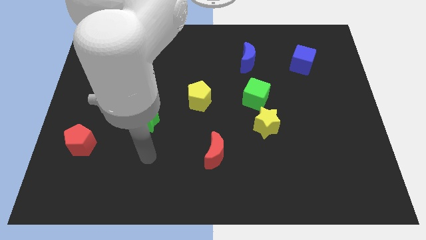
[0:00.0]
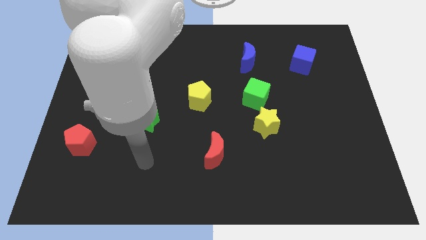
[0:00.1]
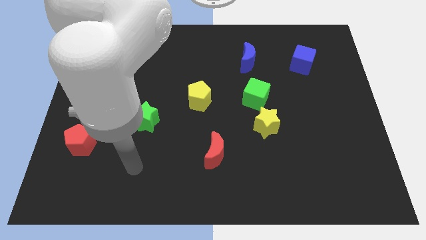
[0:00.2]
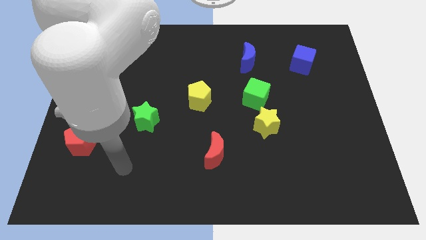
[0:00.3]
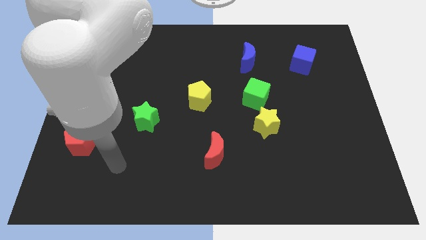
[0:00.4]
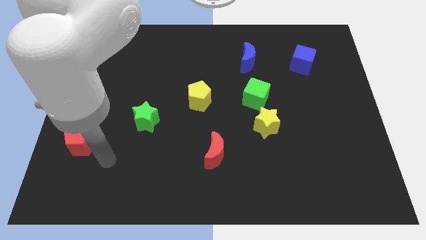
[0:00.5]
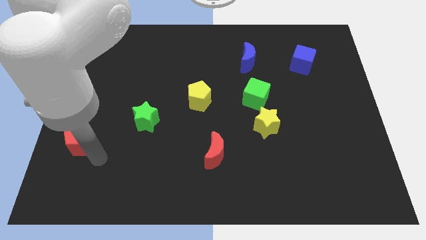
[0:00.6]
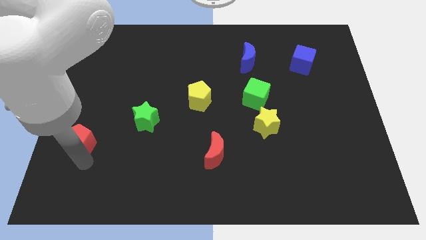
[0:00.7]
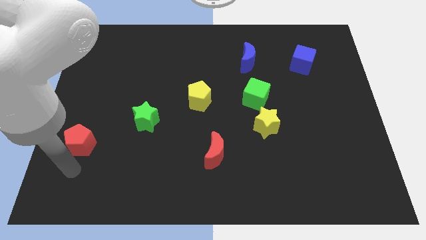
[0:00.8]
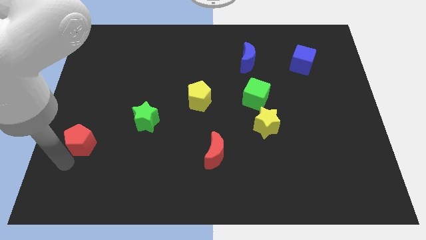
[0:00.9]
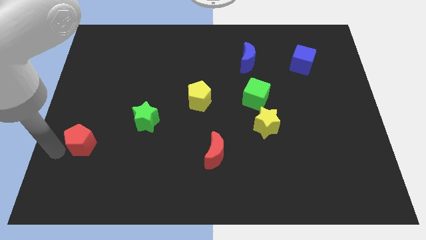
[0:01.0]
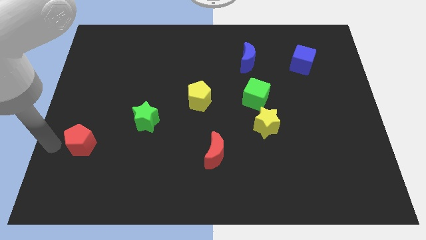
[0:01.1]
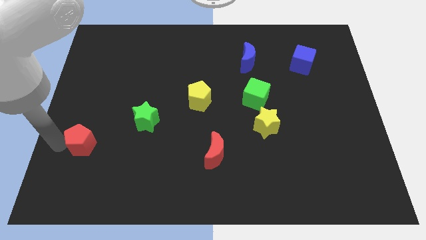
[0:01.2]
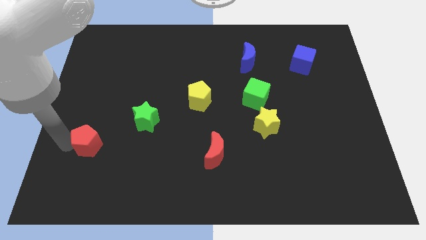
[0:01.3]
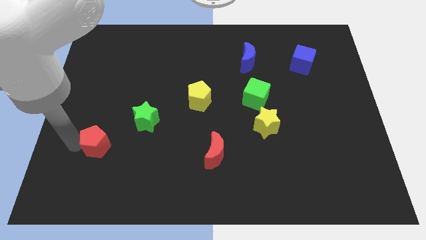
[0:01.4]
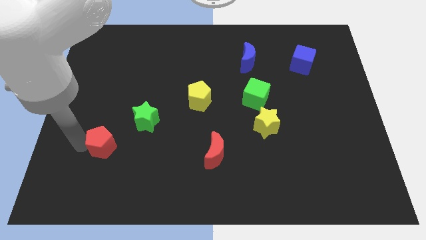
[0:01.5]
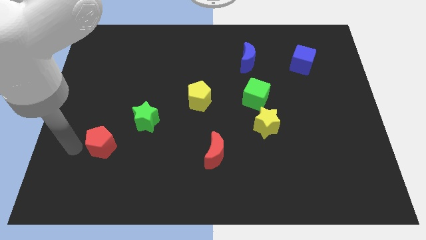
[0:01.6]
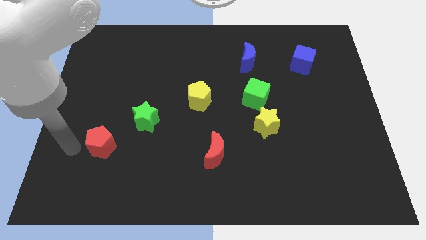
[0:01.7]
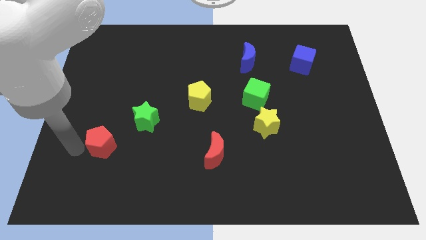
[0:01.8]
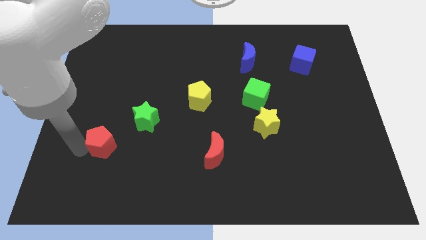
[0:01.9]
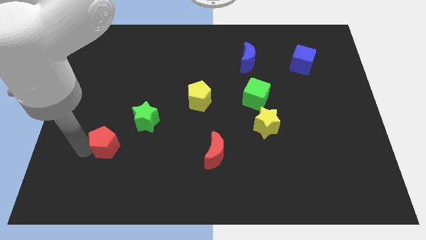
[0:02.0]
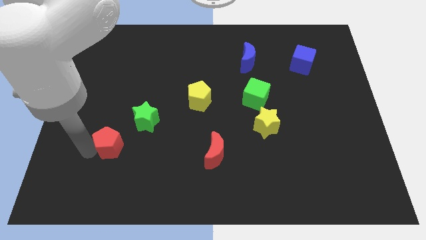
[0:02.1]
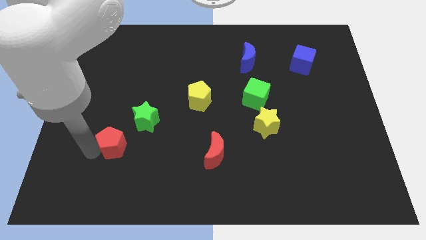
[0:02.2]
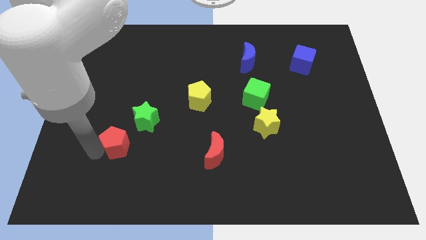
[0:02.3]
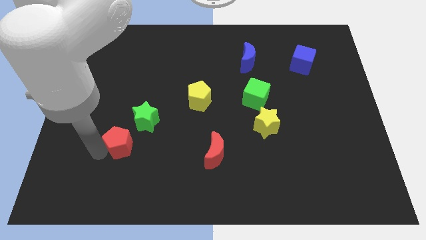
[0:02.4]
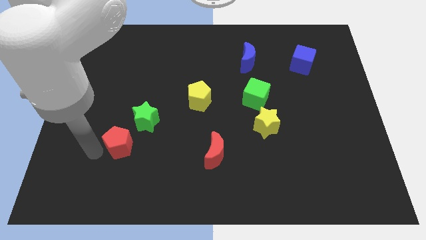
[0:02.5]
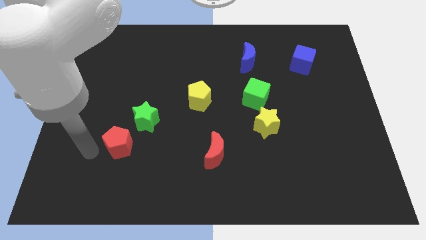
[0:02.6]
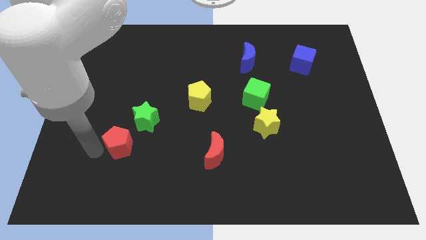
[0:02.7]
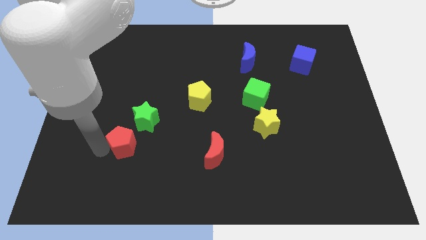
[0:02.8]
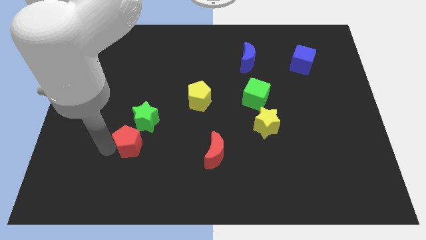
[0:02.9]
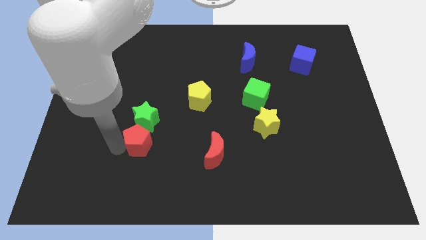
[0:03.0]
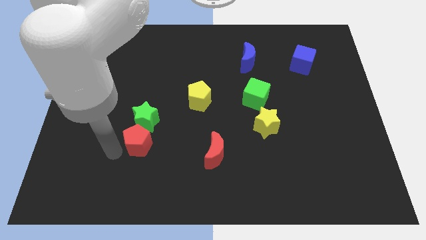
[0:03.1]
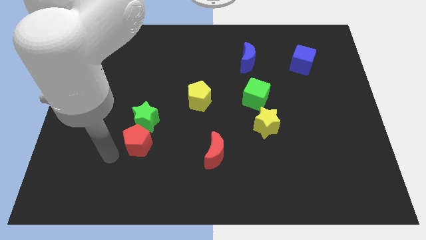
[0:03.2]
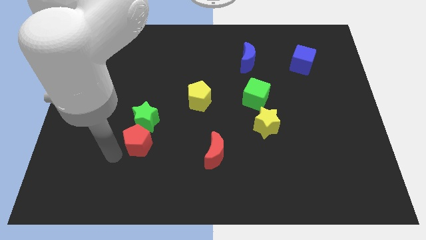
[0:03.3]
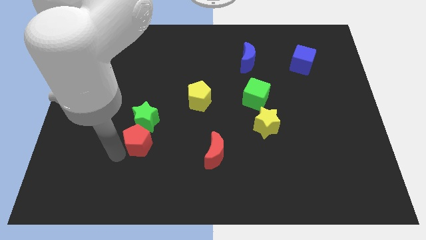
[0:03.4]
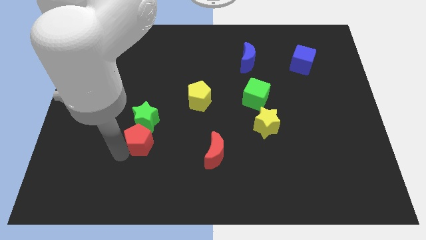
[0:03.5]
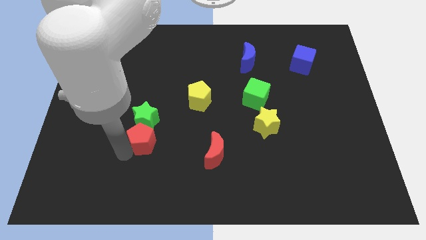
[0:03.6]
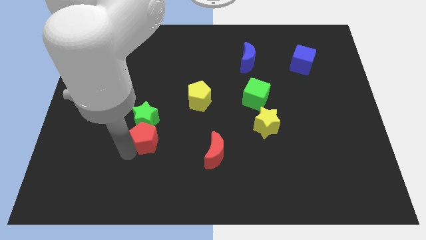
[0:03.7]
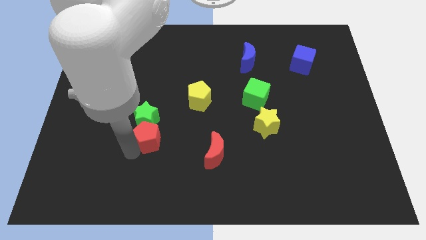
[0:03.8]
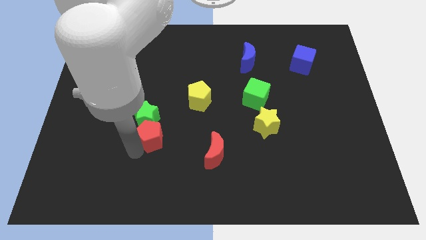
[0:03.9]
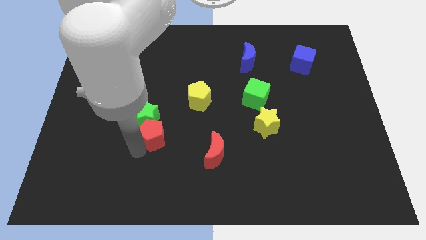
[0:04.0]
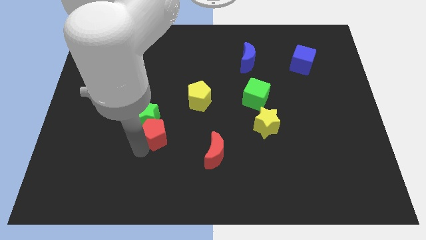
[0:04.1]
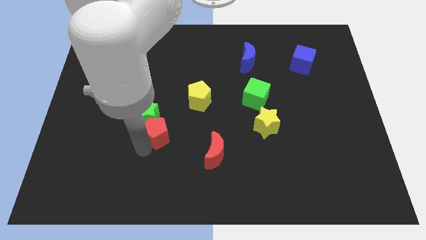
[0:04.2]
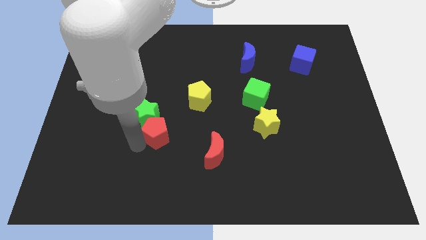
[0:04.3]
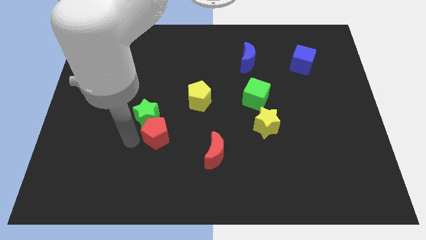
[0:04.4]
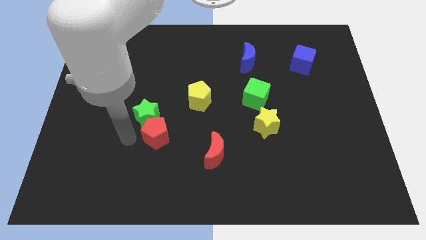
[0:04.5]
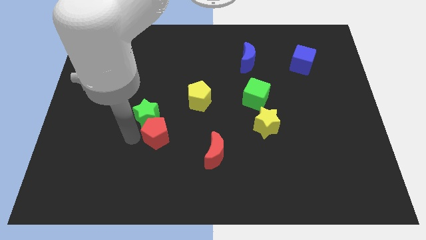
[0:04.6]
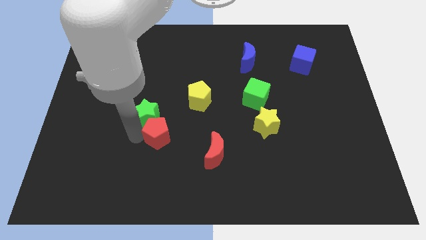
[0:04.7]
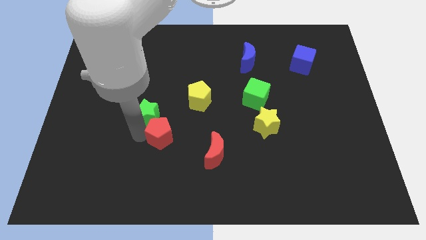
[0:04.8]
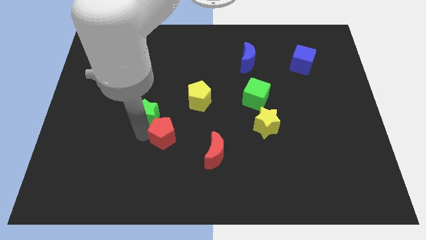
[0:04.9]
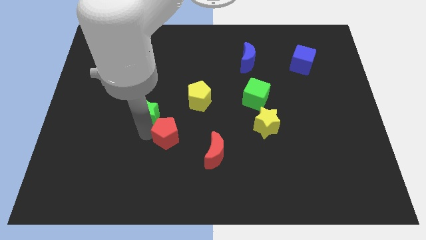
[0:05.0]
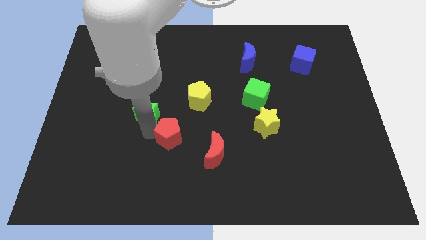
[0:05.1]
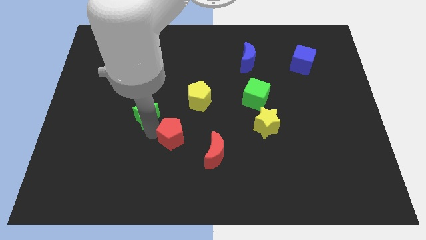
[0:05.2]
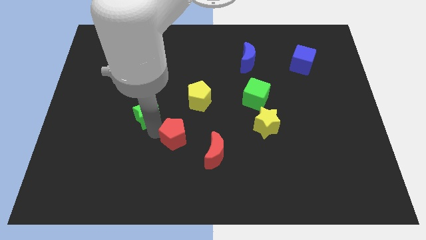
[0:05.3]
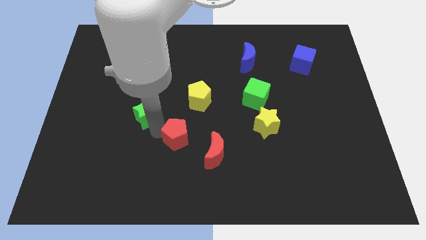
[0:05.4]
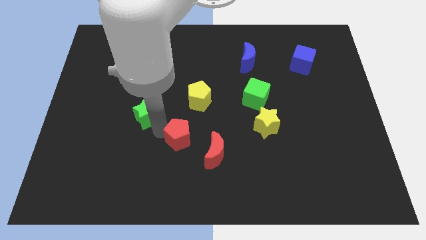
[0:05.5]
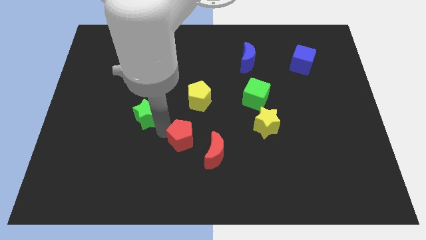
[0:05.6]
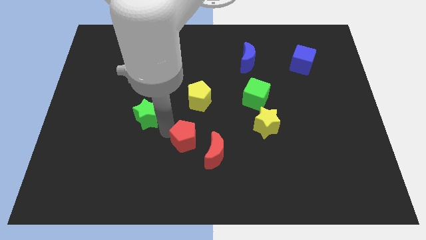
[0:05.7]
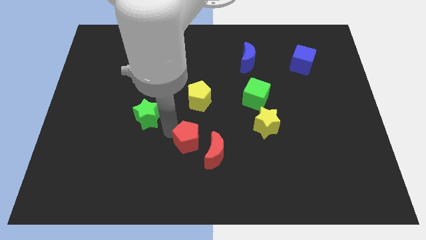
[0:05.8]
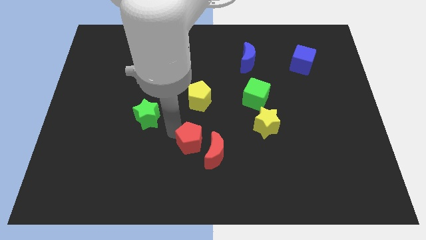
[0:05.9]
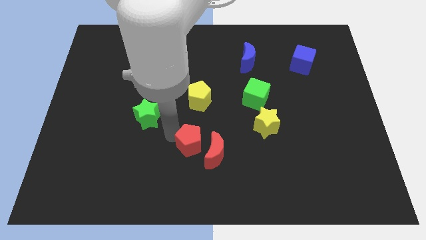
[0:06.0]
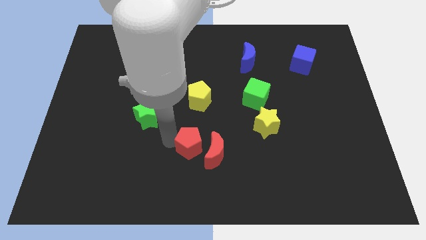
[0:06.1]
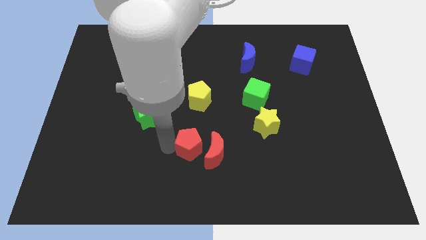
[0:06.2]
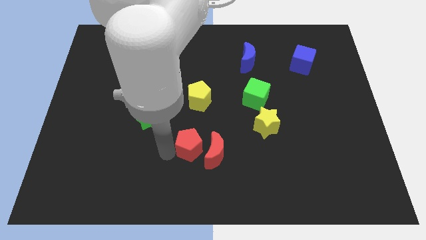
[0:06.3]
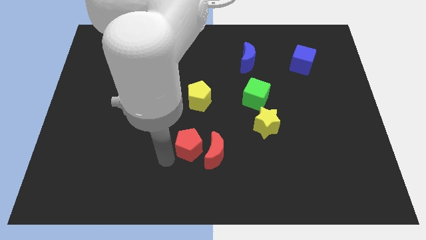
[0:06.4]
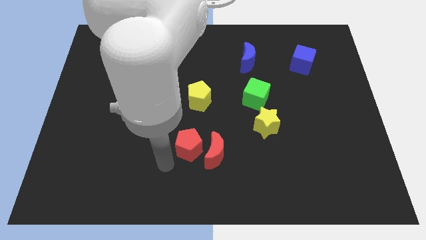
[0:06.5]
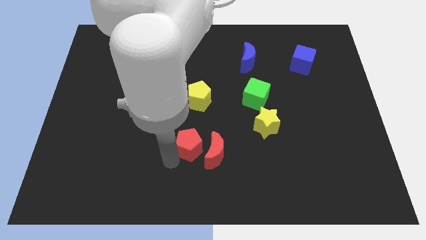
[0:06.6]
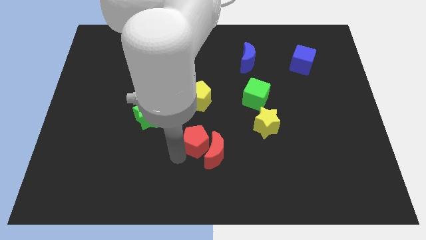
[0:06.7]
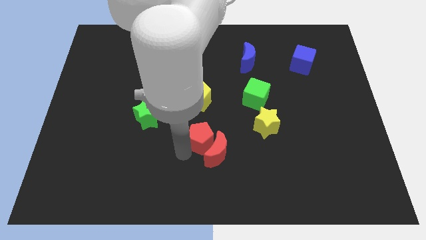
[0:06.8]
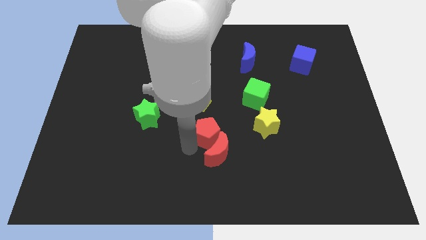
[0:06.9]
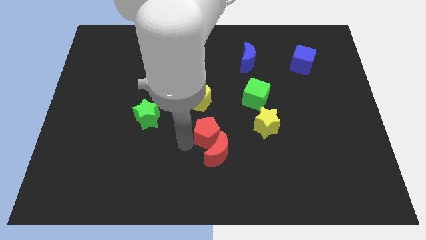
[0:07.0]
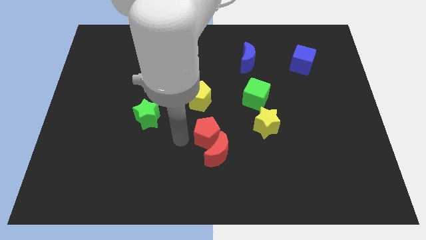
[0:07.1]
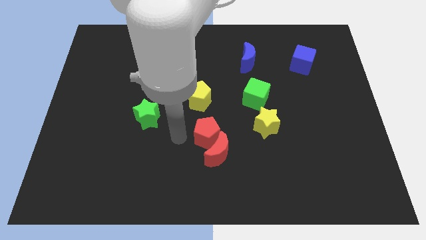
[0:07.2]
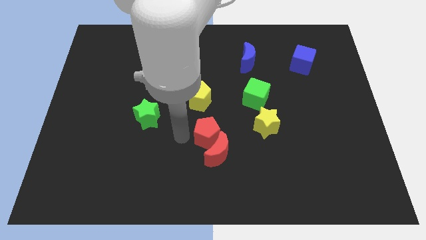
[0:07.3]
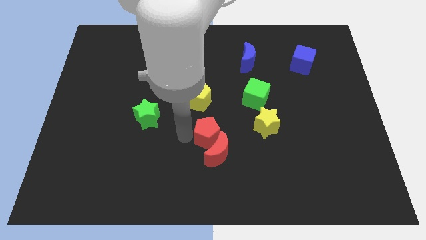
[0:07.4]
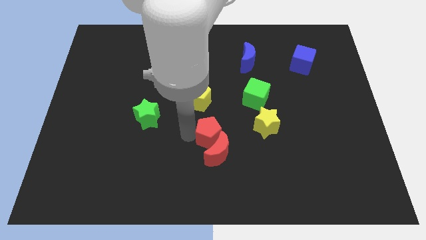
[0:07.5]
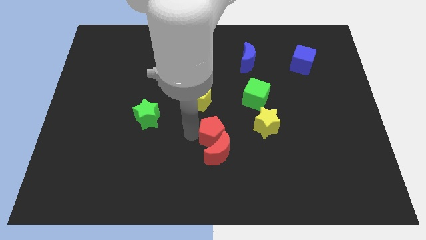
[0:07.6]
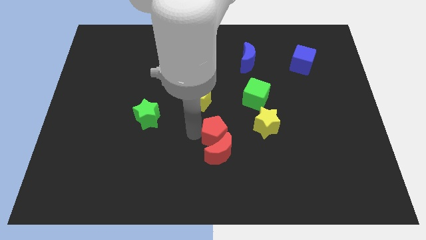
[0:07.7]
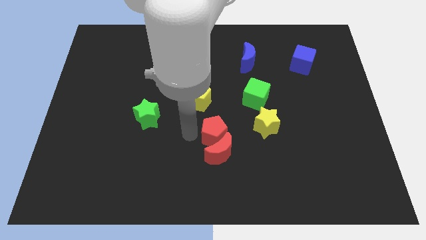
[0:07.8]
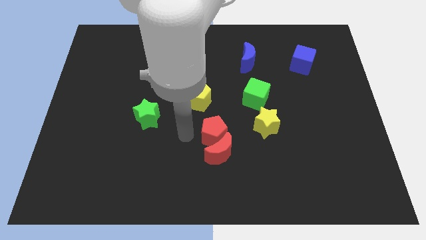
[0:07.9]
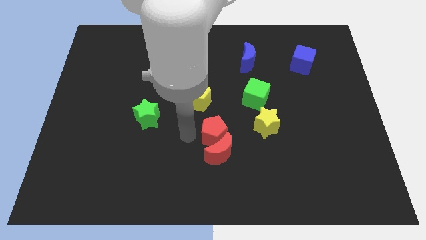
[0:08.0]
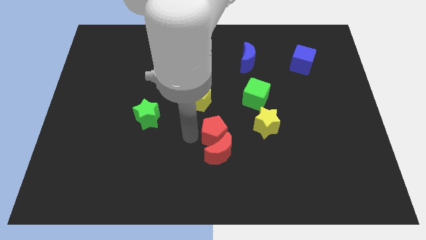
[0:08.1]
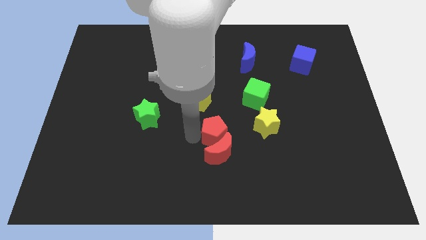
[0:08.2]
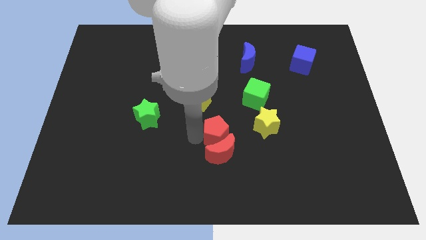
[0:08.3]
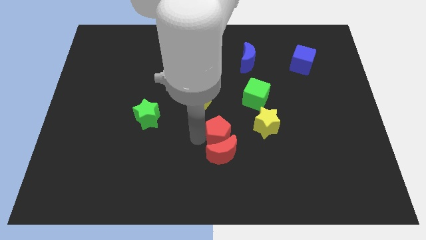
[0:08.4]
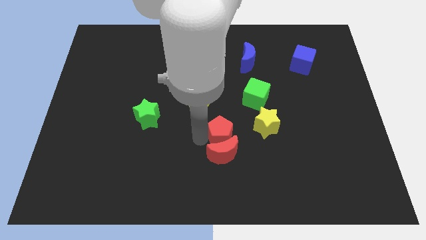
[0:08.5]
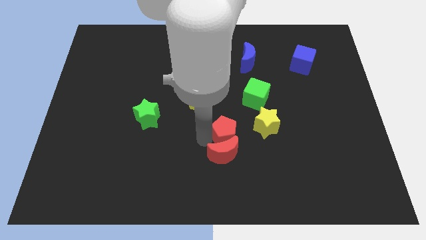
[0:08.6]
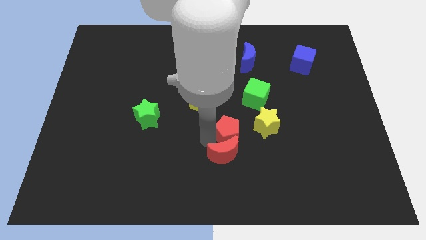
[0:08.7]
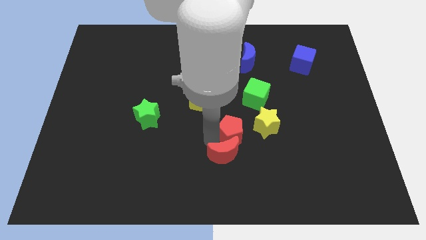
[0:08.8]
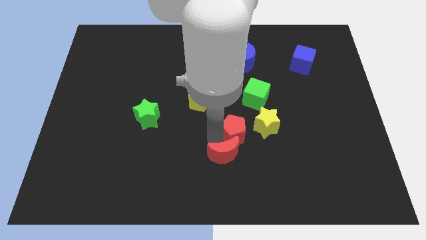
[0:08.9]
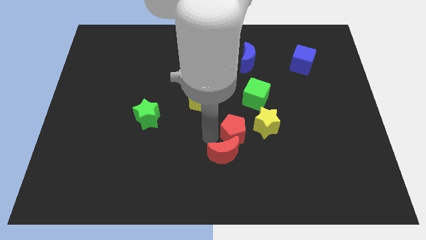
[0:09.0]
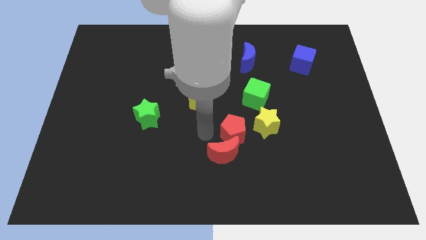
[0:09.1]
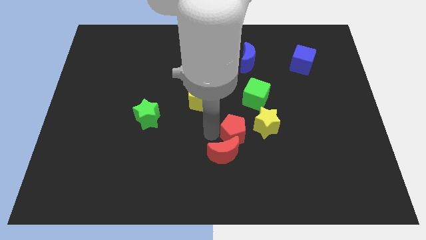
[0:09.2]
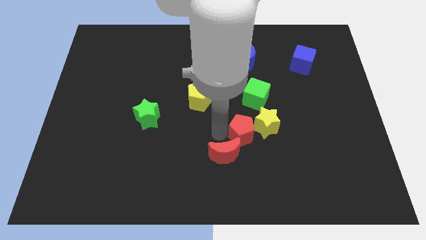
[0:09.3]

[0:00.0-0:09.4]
push the red pentagon below the green cube
